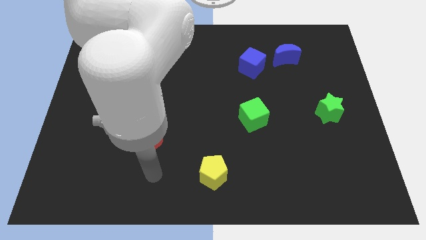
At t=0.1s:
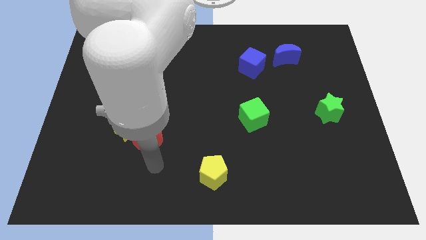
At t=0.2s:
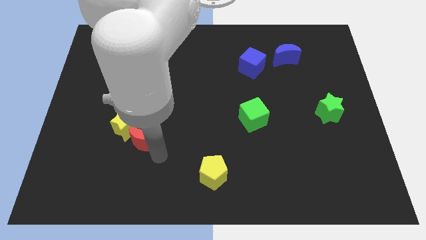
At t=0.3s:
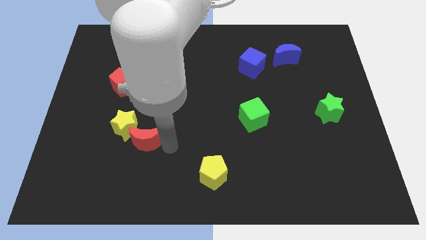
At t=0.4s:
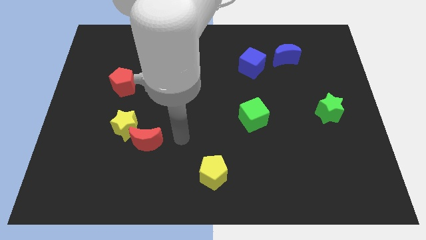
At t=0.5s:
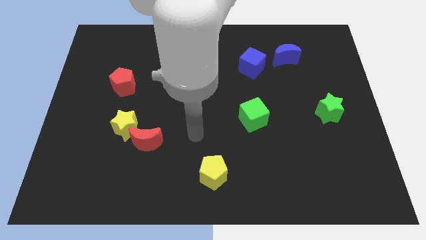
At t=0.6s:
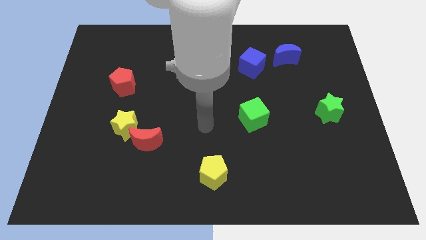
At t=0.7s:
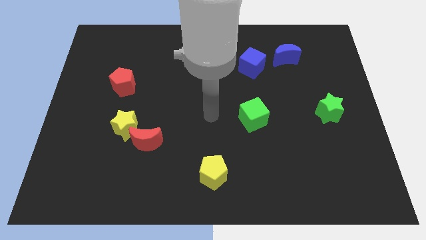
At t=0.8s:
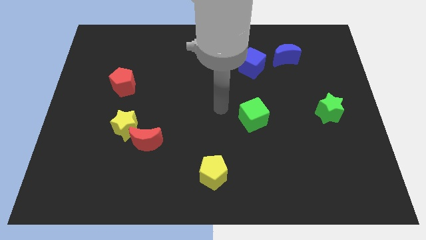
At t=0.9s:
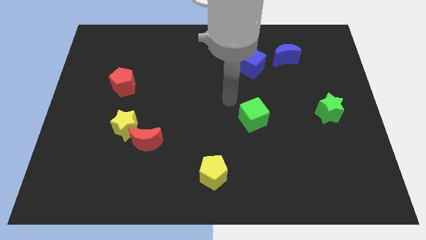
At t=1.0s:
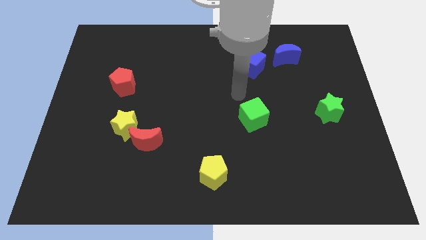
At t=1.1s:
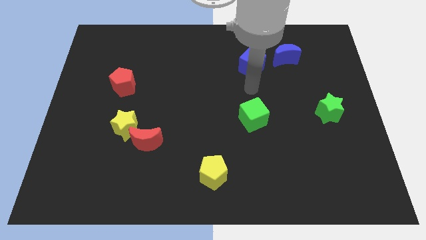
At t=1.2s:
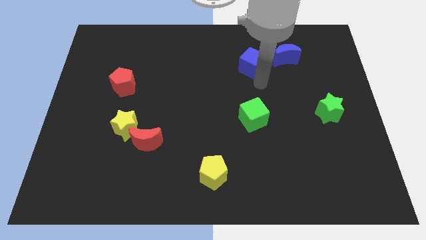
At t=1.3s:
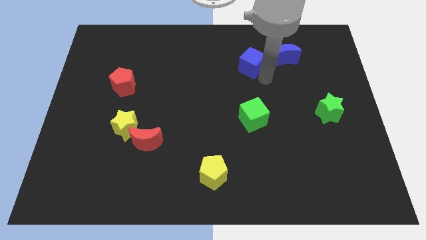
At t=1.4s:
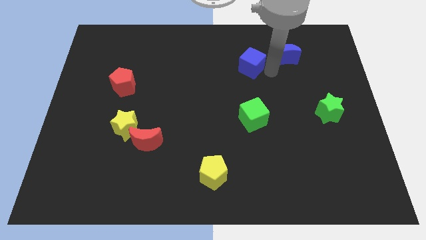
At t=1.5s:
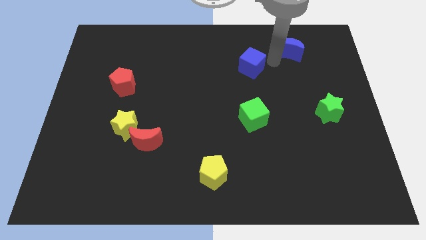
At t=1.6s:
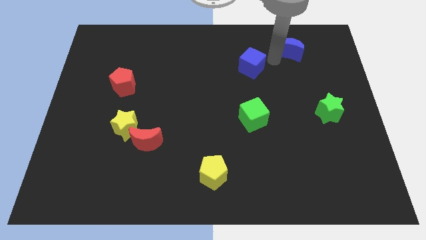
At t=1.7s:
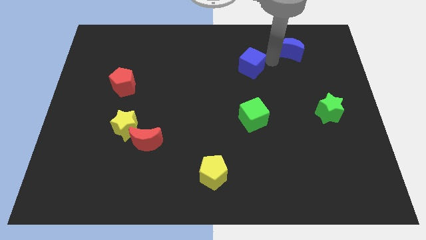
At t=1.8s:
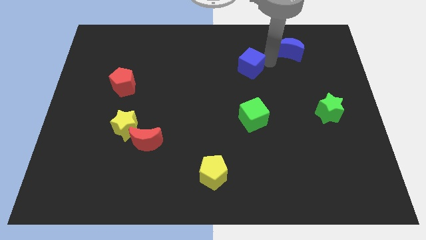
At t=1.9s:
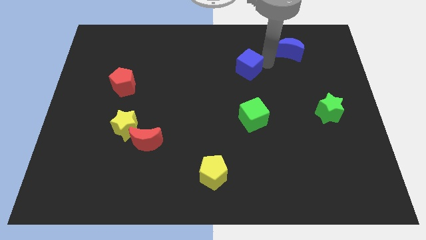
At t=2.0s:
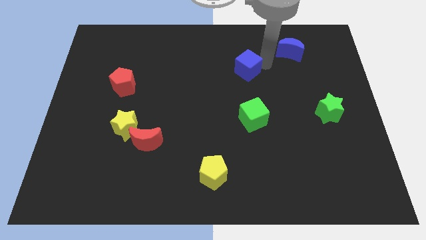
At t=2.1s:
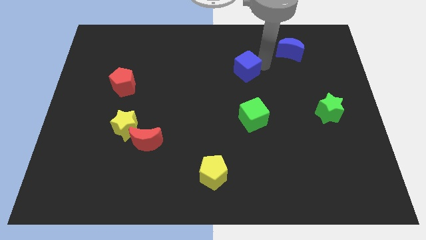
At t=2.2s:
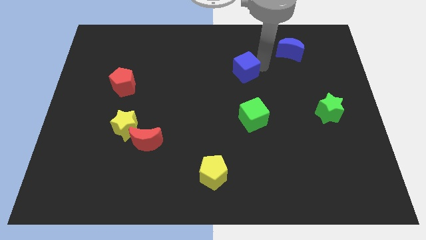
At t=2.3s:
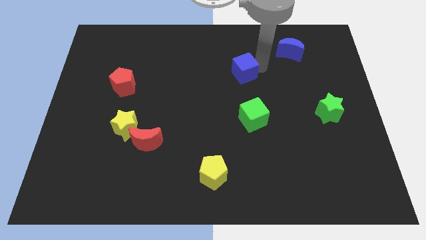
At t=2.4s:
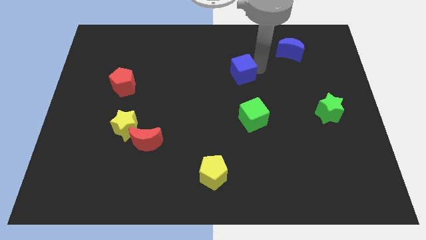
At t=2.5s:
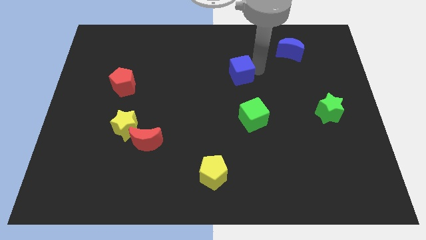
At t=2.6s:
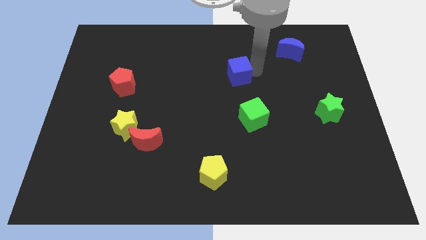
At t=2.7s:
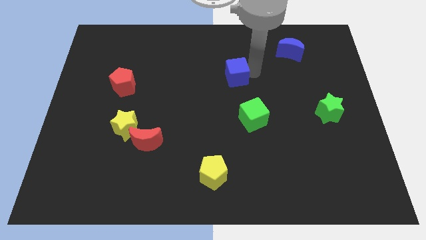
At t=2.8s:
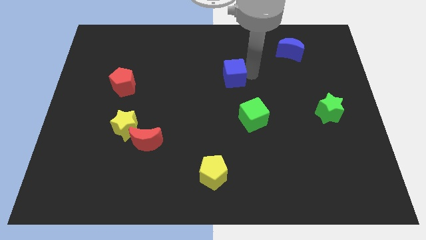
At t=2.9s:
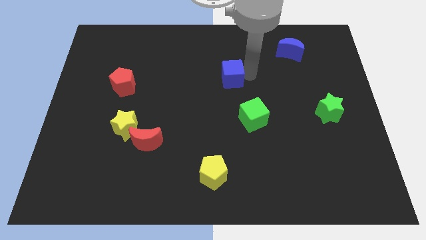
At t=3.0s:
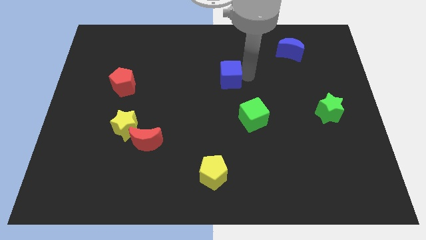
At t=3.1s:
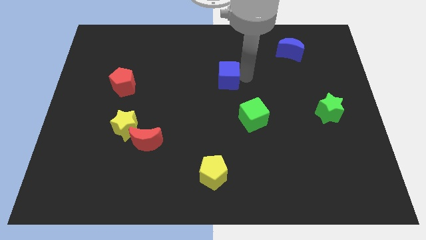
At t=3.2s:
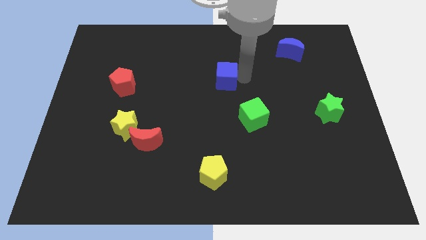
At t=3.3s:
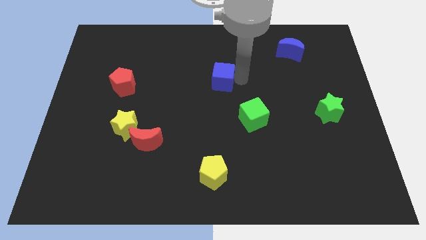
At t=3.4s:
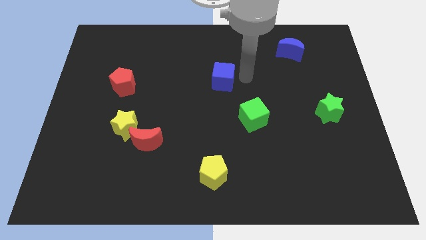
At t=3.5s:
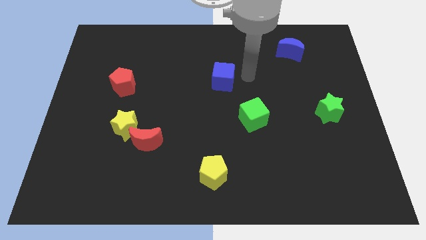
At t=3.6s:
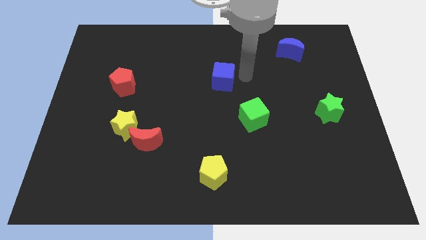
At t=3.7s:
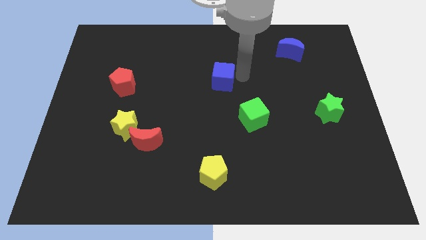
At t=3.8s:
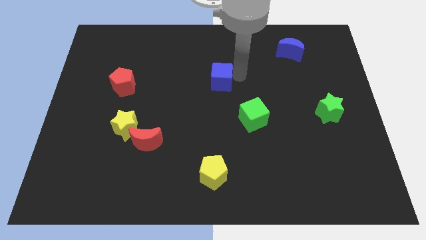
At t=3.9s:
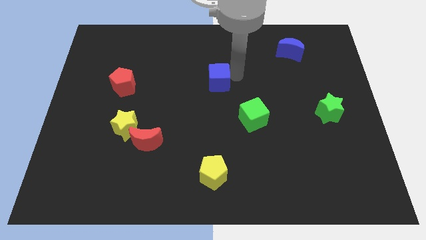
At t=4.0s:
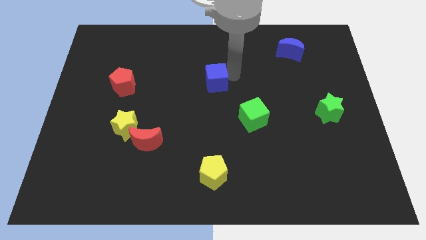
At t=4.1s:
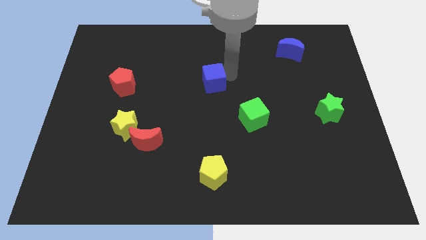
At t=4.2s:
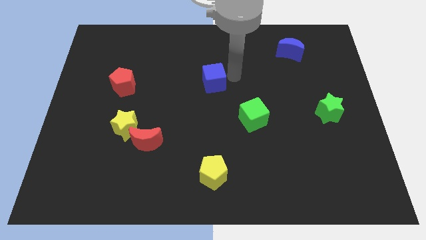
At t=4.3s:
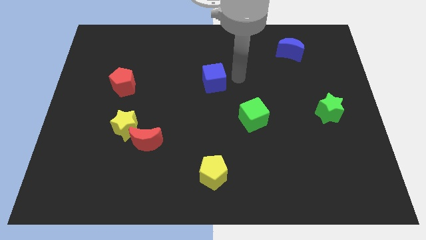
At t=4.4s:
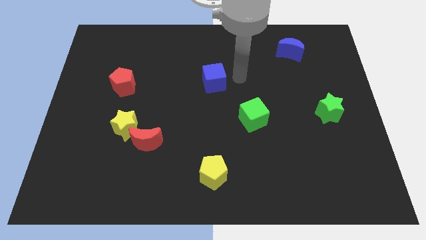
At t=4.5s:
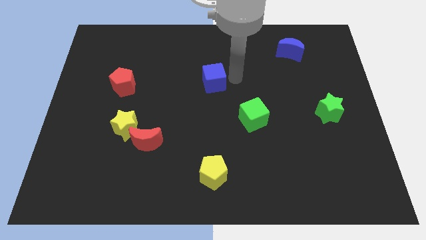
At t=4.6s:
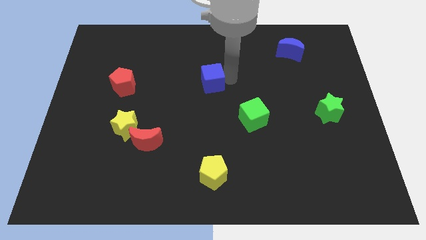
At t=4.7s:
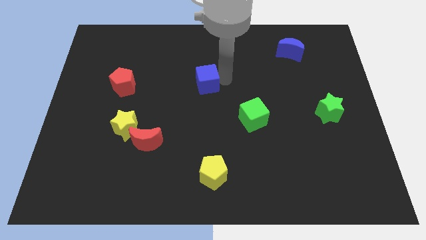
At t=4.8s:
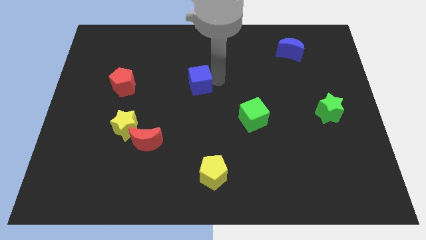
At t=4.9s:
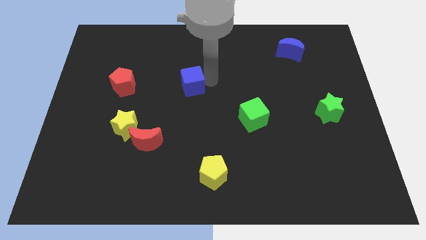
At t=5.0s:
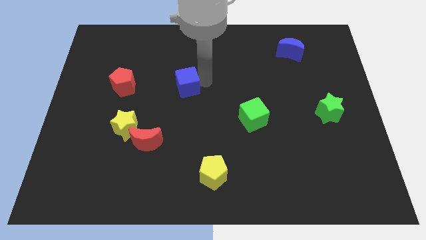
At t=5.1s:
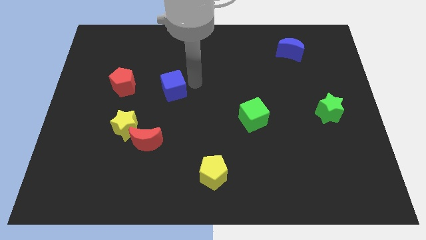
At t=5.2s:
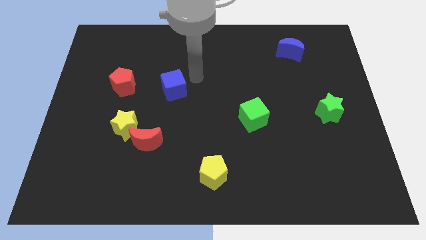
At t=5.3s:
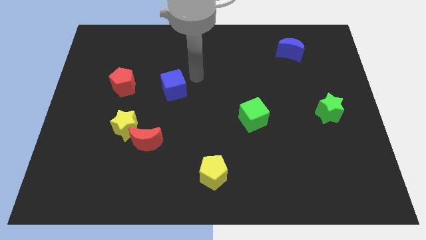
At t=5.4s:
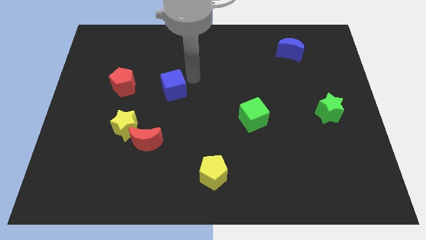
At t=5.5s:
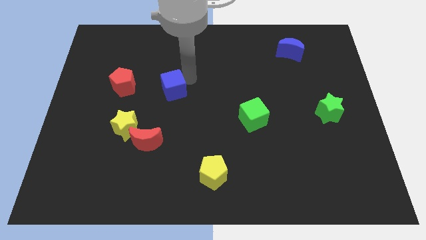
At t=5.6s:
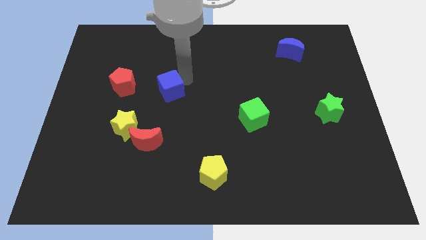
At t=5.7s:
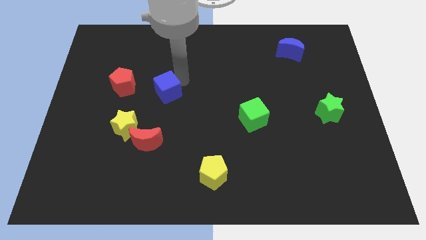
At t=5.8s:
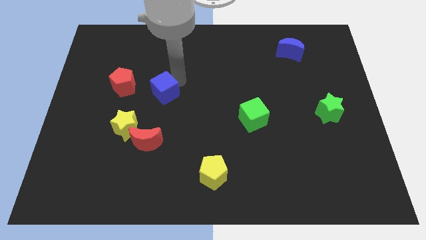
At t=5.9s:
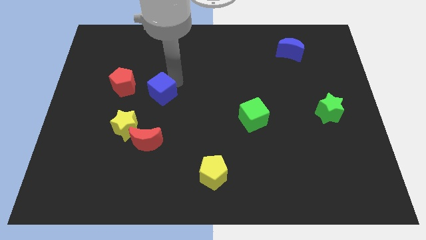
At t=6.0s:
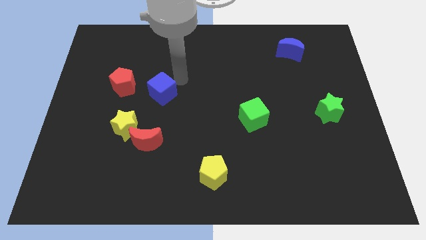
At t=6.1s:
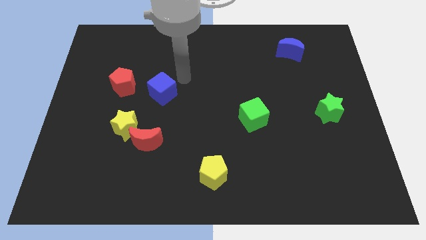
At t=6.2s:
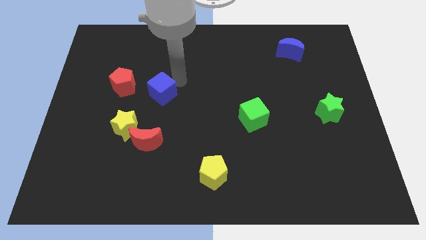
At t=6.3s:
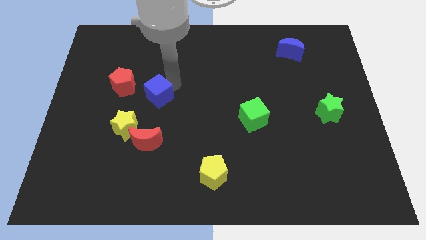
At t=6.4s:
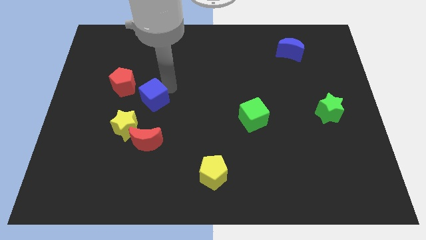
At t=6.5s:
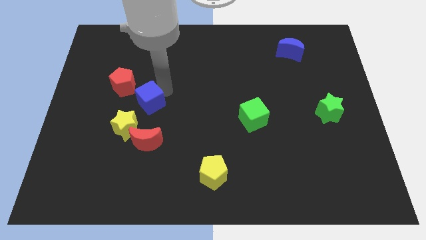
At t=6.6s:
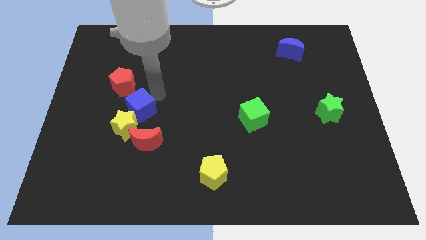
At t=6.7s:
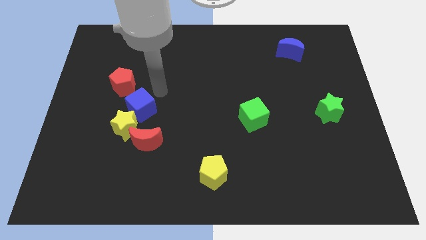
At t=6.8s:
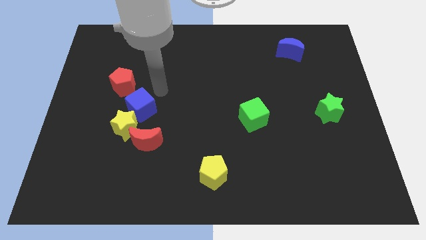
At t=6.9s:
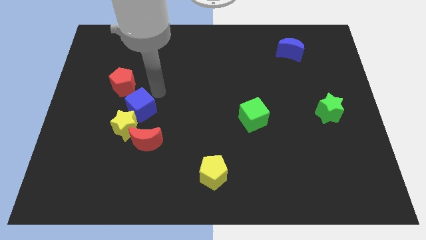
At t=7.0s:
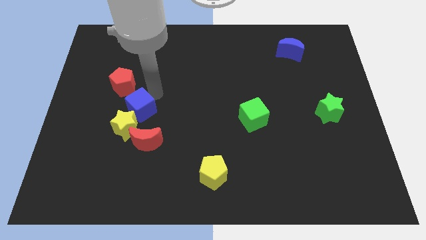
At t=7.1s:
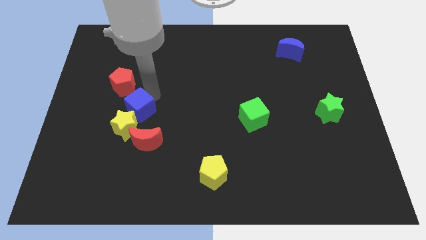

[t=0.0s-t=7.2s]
put the blue cube diagonally up and to the left of the red moon

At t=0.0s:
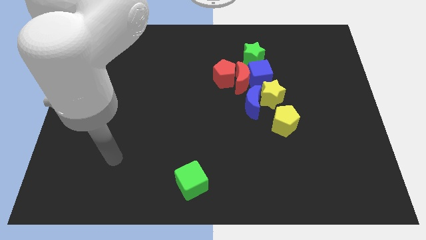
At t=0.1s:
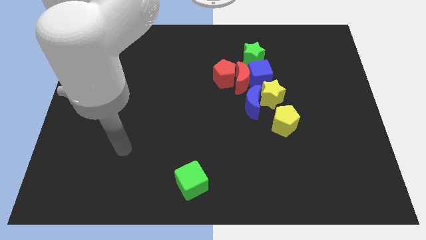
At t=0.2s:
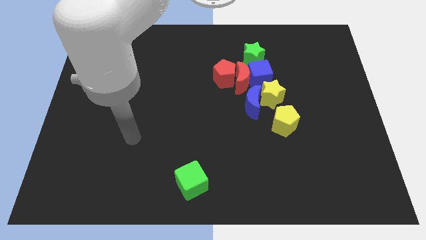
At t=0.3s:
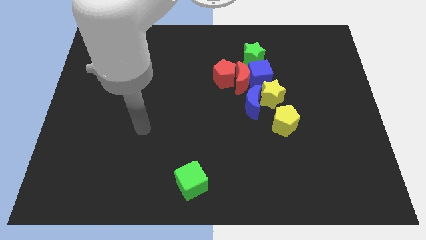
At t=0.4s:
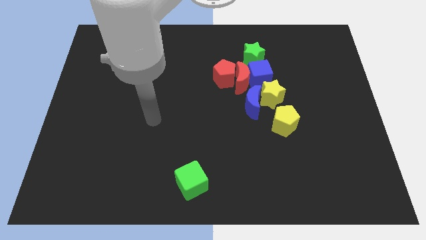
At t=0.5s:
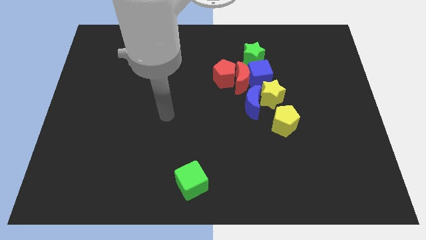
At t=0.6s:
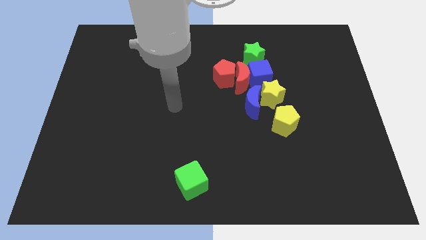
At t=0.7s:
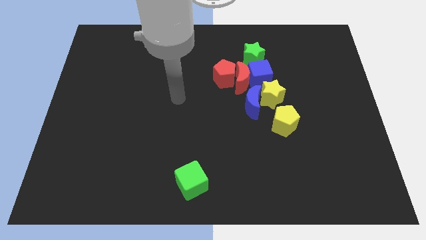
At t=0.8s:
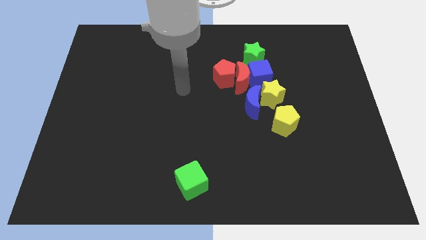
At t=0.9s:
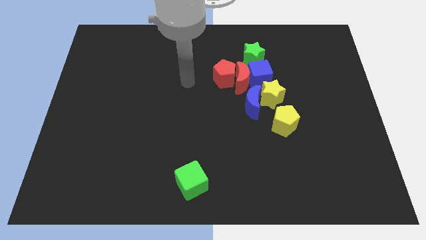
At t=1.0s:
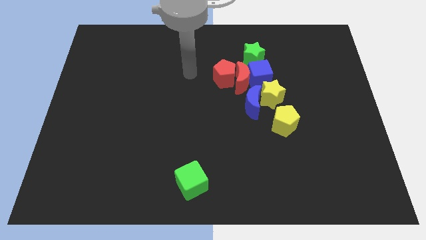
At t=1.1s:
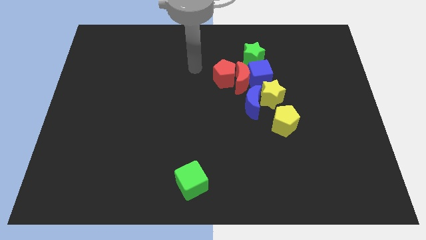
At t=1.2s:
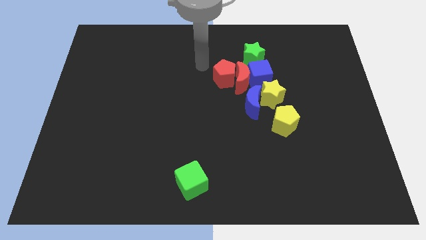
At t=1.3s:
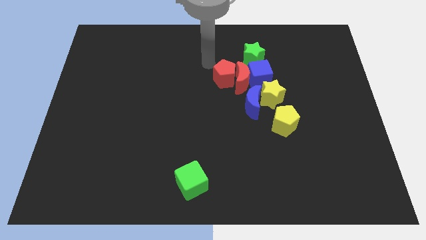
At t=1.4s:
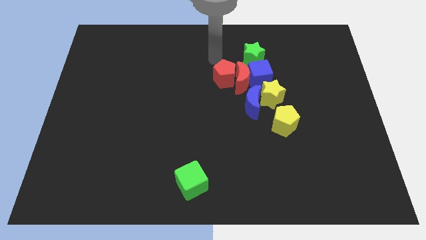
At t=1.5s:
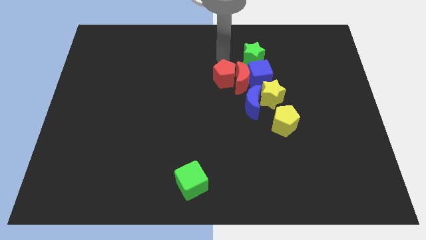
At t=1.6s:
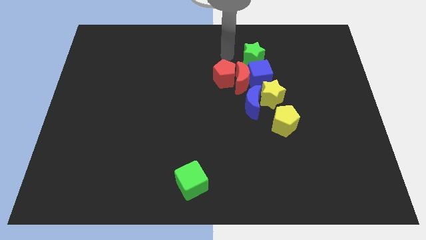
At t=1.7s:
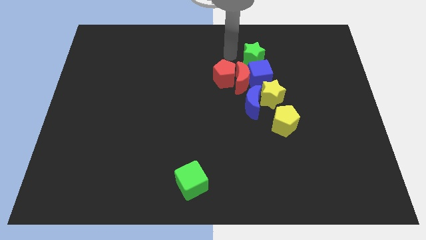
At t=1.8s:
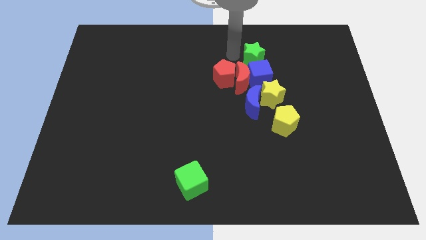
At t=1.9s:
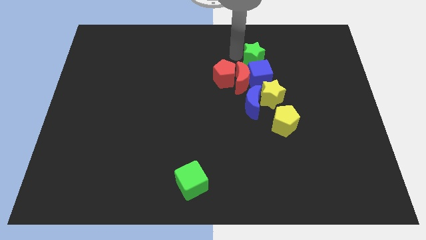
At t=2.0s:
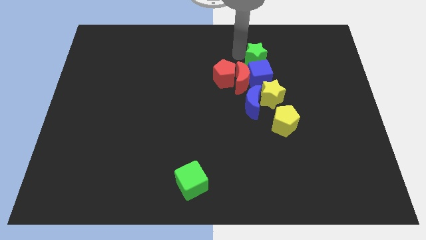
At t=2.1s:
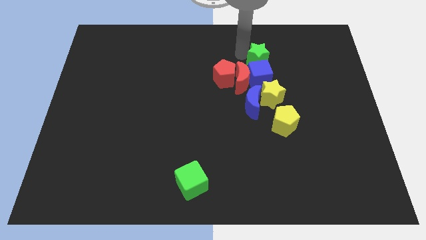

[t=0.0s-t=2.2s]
slide the green star diagonally up and to the right of the blue cube
